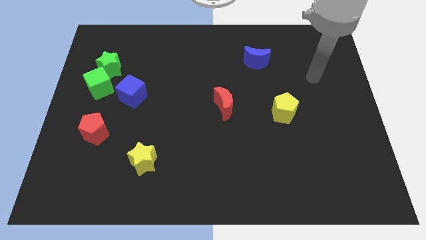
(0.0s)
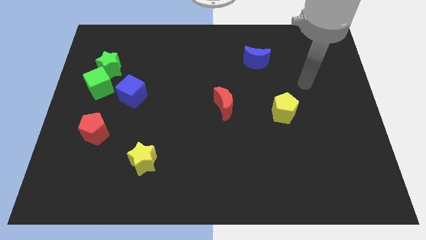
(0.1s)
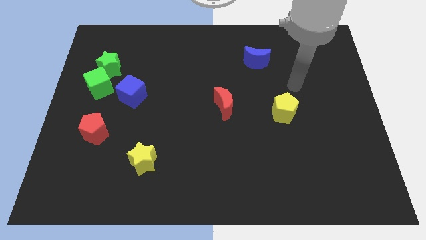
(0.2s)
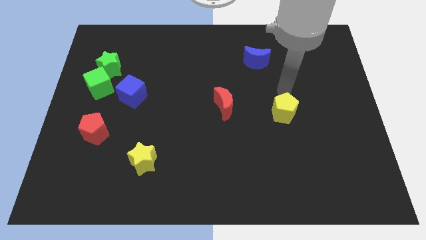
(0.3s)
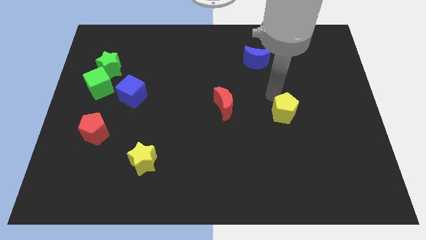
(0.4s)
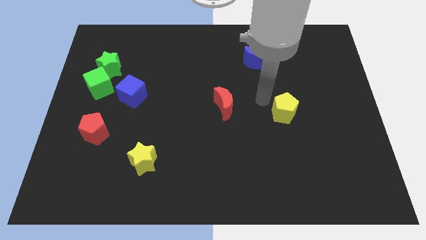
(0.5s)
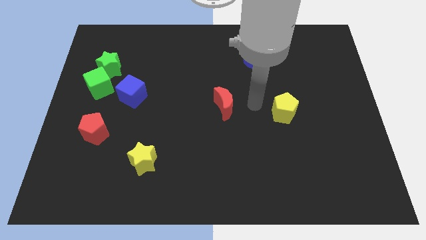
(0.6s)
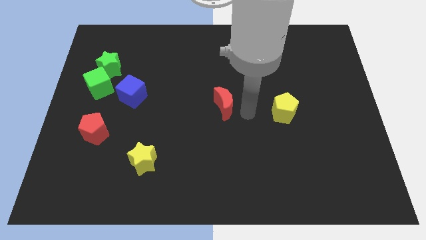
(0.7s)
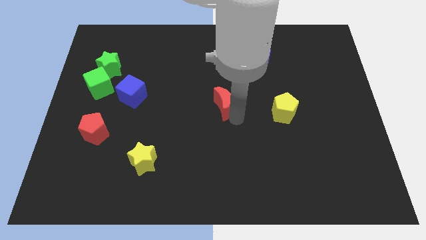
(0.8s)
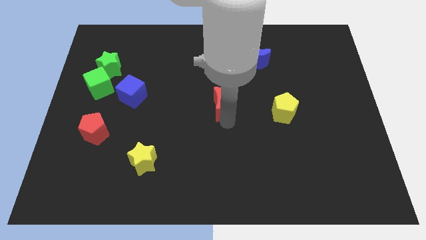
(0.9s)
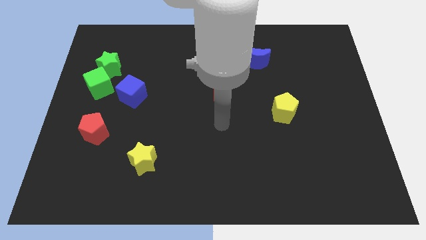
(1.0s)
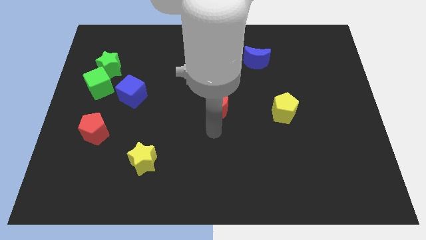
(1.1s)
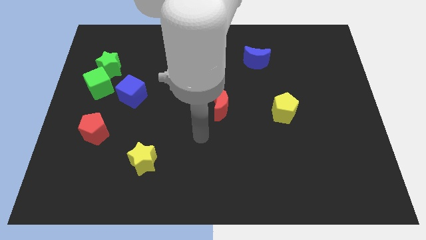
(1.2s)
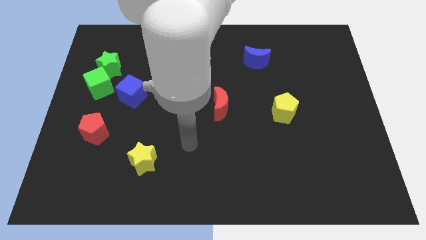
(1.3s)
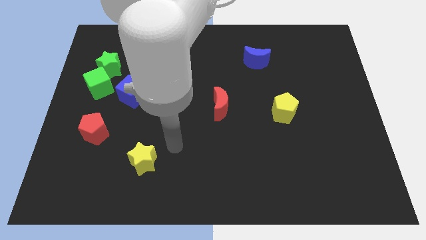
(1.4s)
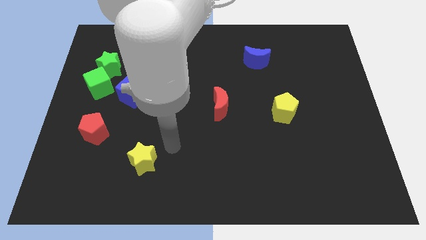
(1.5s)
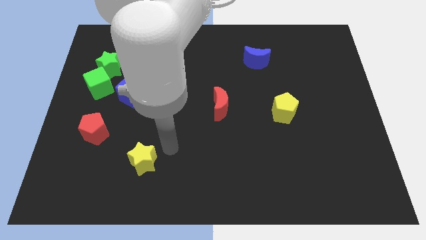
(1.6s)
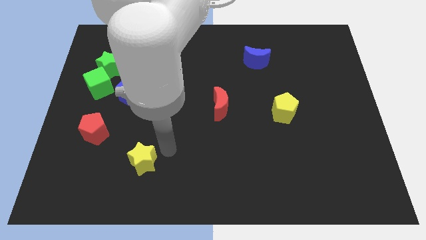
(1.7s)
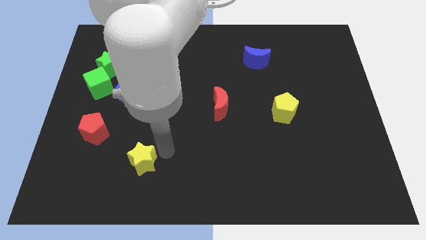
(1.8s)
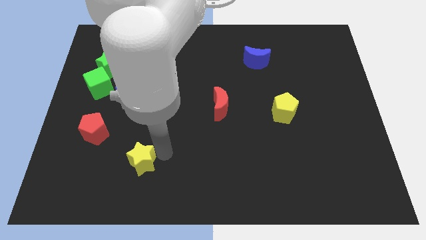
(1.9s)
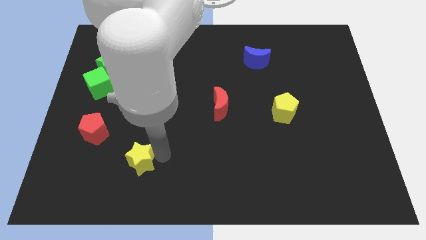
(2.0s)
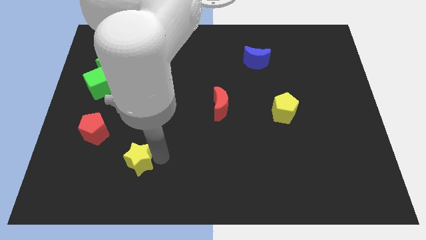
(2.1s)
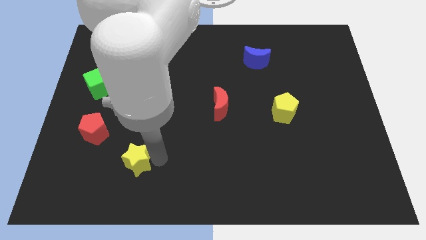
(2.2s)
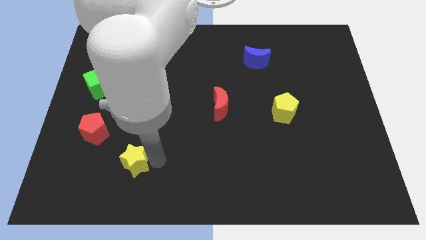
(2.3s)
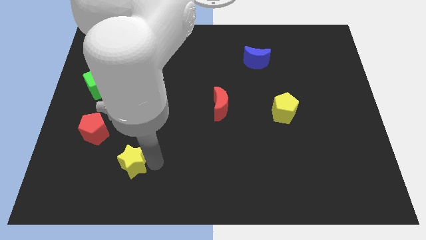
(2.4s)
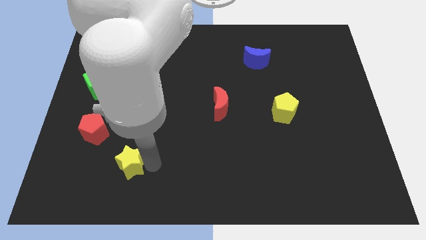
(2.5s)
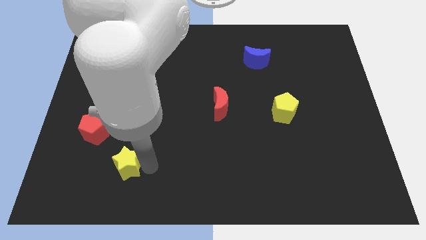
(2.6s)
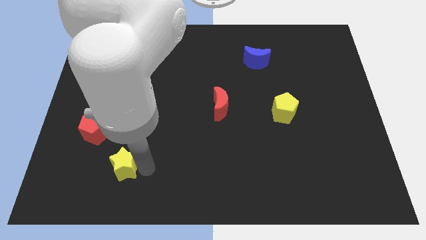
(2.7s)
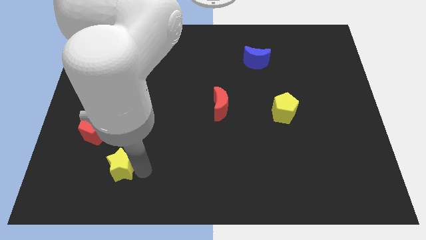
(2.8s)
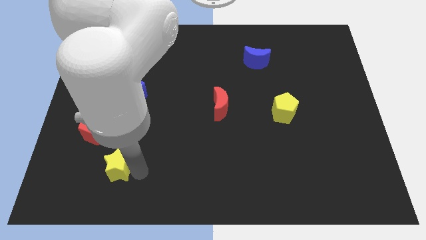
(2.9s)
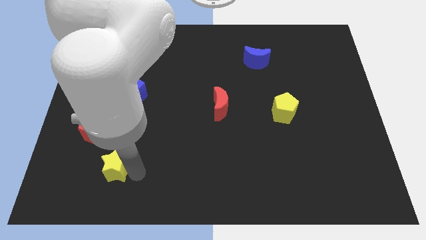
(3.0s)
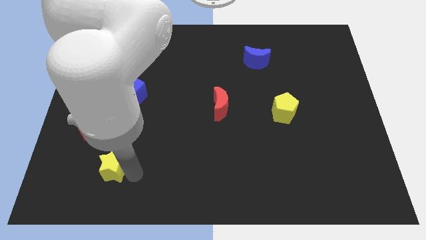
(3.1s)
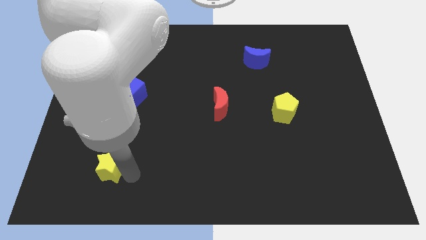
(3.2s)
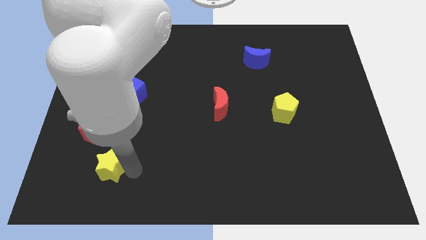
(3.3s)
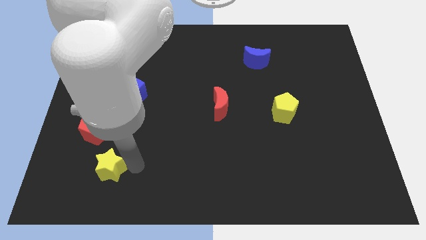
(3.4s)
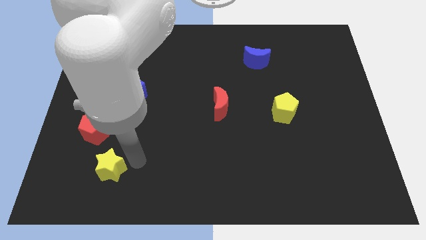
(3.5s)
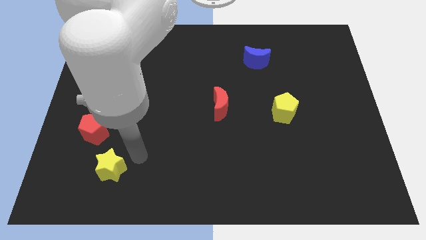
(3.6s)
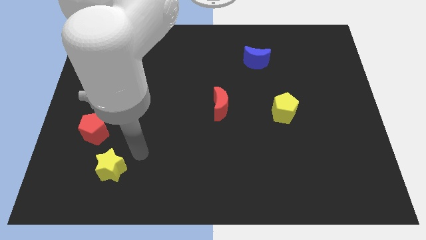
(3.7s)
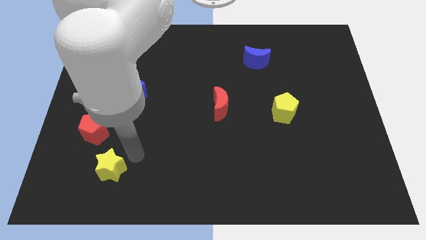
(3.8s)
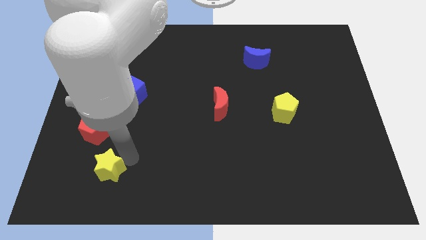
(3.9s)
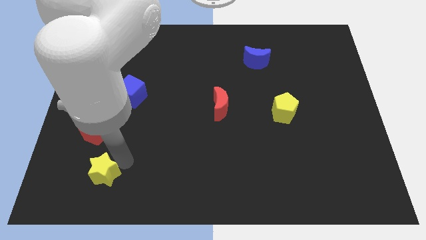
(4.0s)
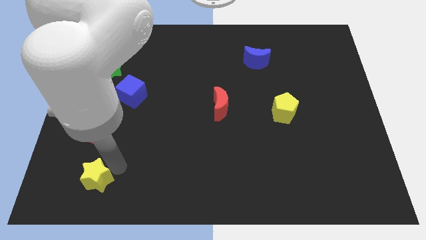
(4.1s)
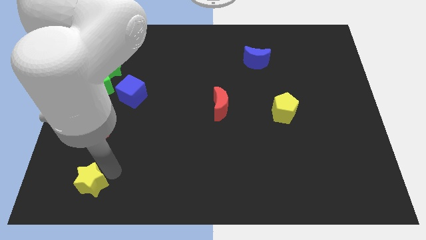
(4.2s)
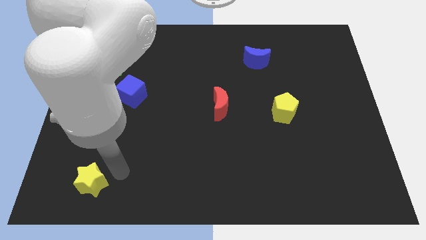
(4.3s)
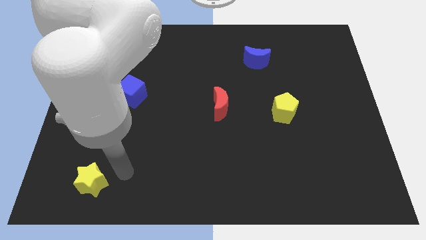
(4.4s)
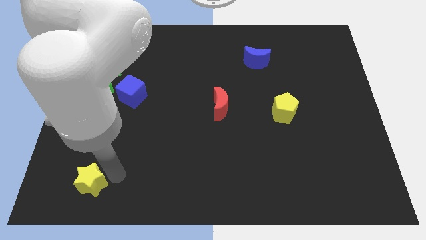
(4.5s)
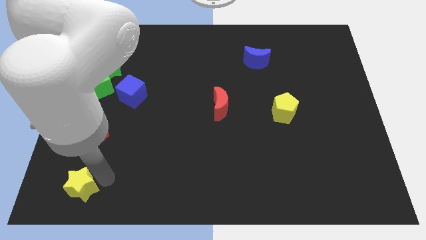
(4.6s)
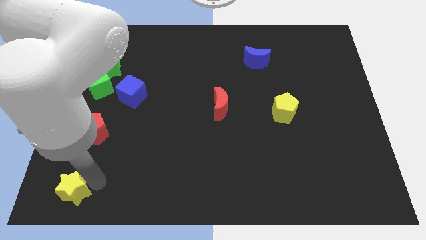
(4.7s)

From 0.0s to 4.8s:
push the yellow star to the bottom left of the board

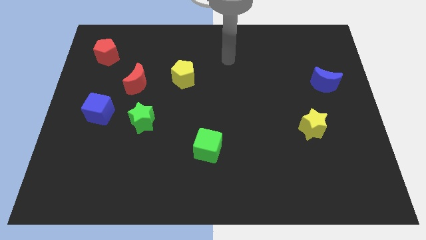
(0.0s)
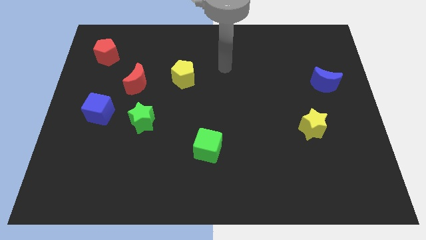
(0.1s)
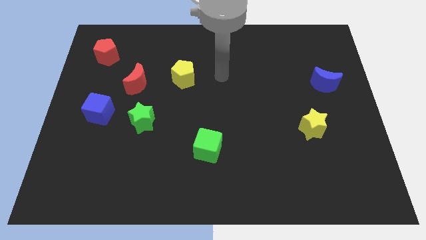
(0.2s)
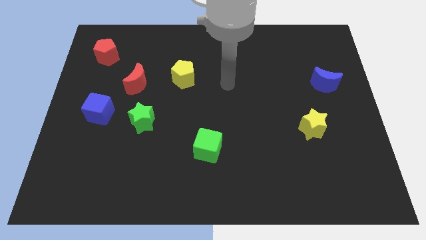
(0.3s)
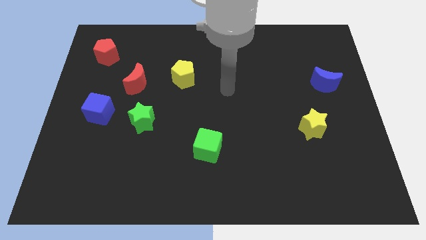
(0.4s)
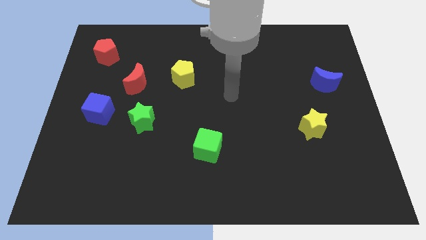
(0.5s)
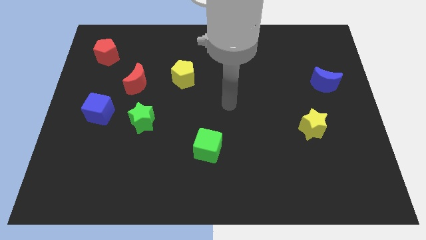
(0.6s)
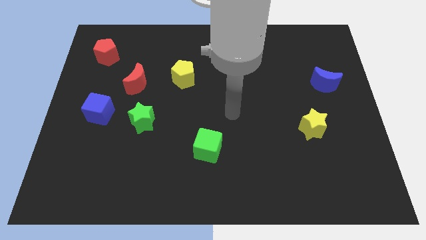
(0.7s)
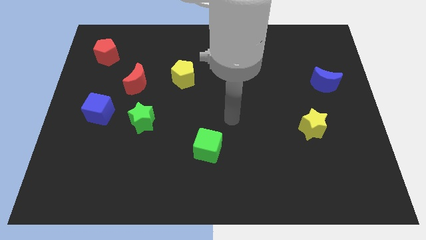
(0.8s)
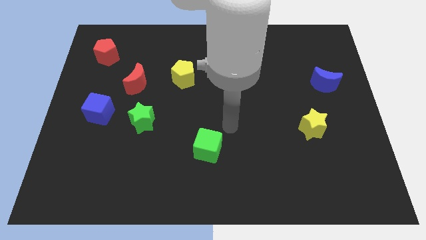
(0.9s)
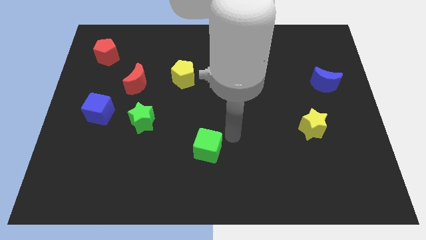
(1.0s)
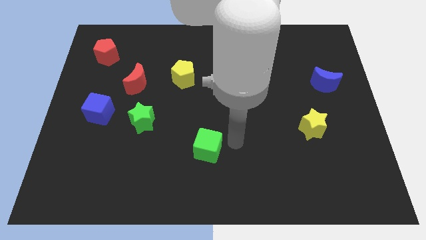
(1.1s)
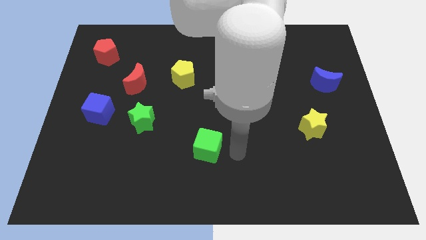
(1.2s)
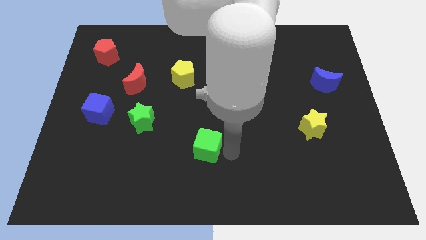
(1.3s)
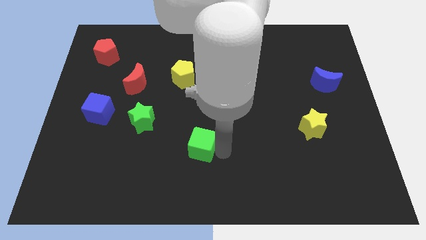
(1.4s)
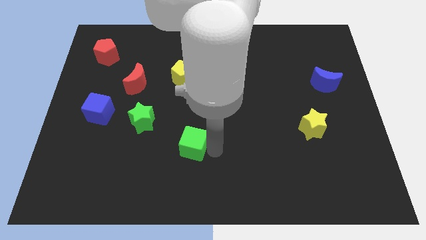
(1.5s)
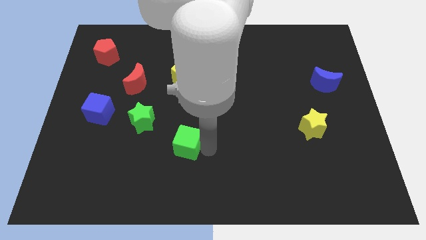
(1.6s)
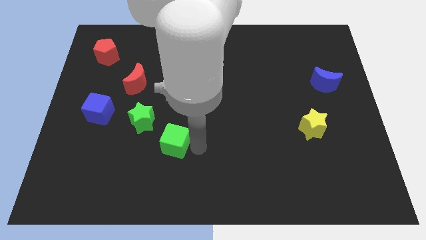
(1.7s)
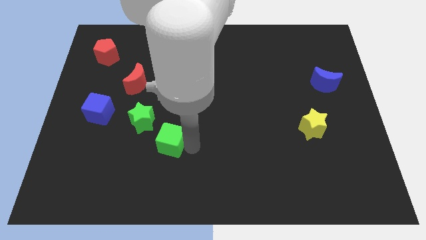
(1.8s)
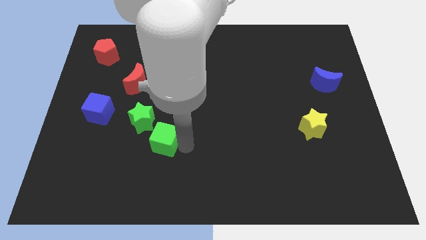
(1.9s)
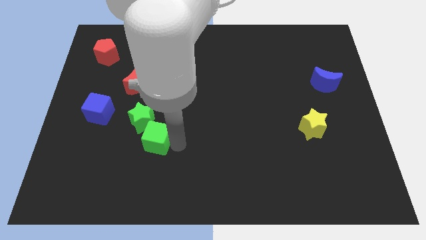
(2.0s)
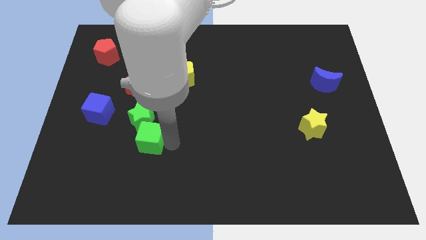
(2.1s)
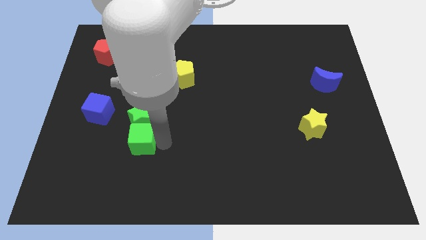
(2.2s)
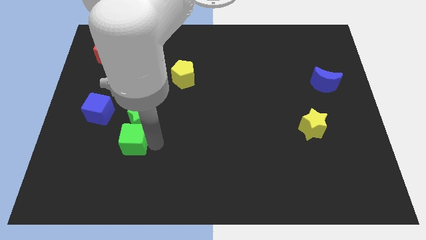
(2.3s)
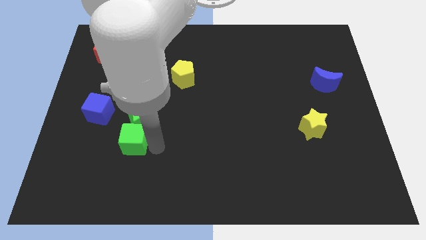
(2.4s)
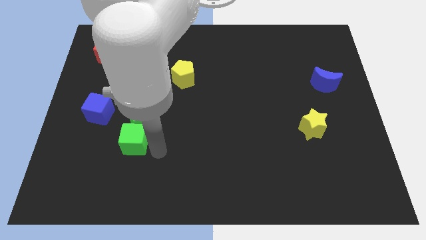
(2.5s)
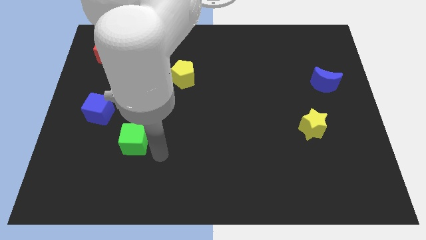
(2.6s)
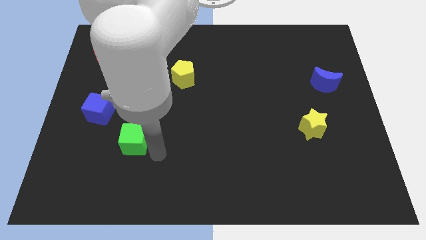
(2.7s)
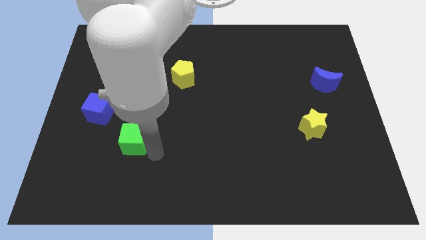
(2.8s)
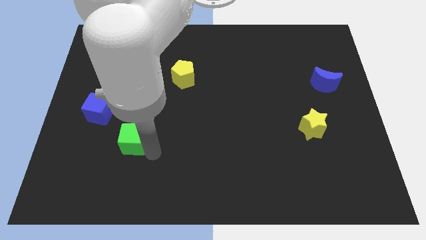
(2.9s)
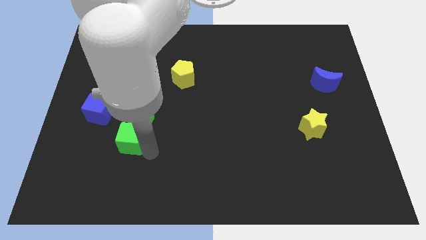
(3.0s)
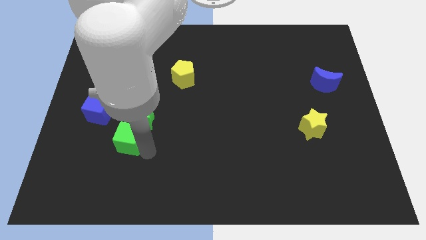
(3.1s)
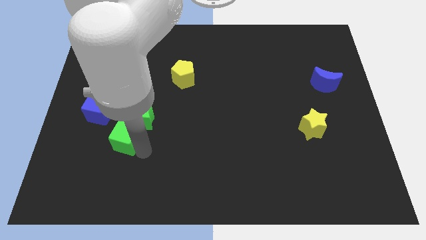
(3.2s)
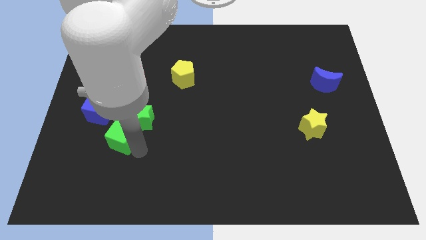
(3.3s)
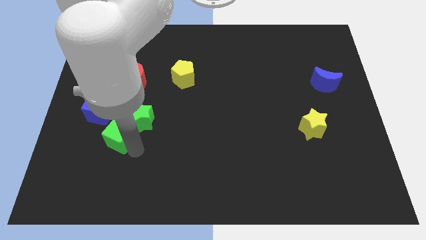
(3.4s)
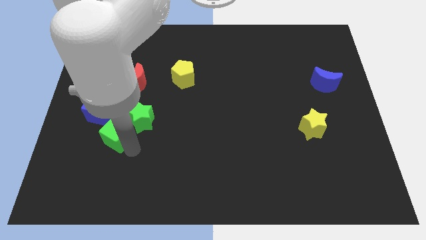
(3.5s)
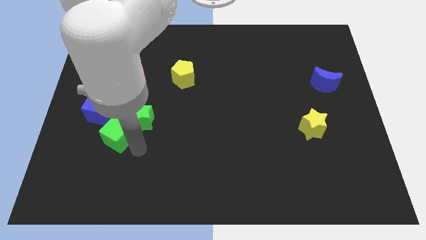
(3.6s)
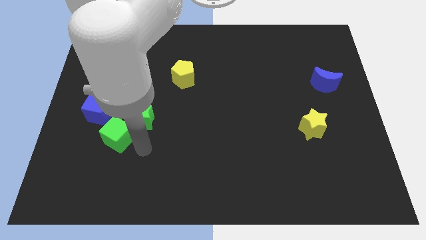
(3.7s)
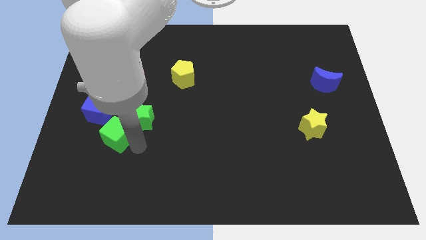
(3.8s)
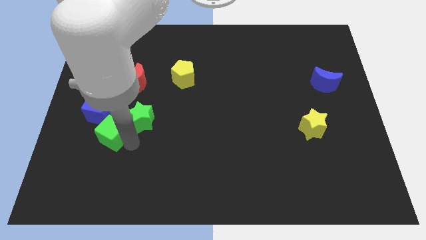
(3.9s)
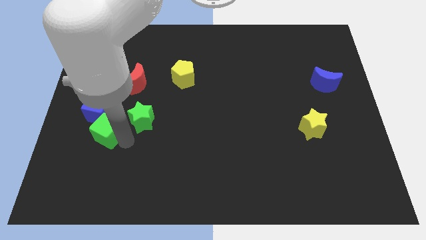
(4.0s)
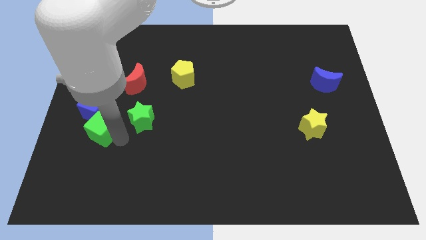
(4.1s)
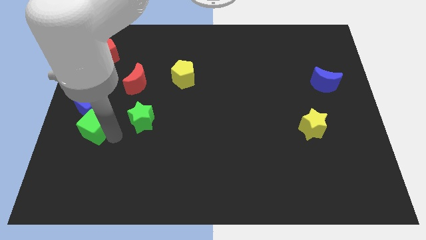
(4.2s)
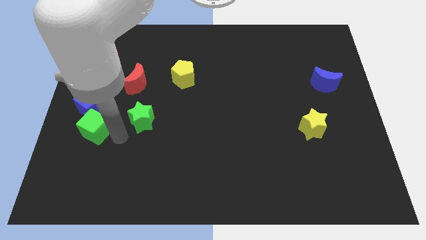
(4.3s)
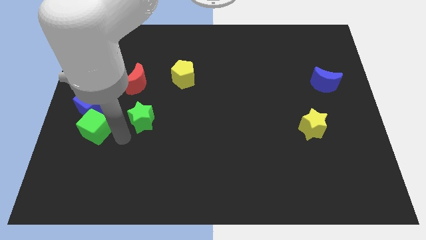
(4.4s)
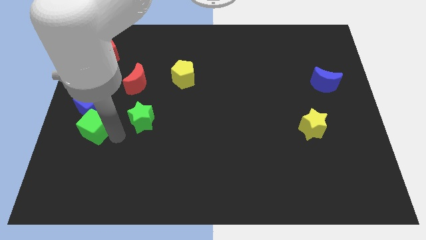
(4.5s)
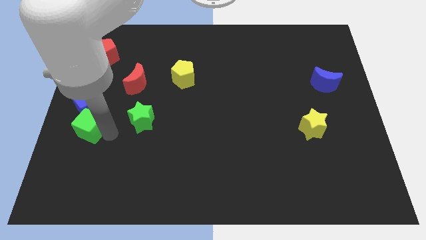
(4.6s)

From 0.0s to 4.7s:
move the green cube to the left side
